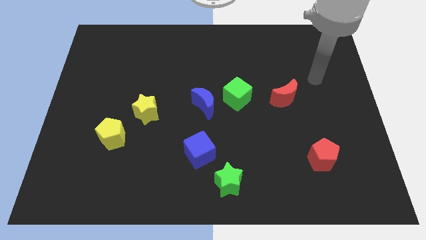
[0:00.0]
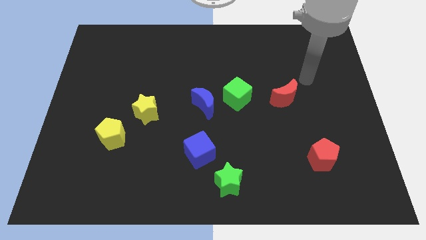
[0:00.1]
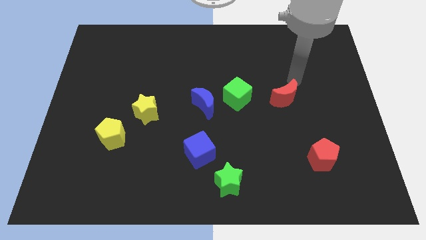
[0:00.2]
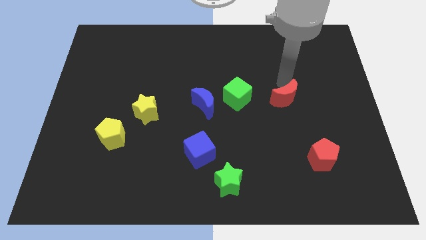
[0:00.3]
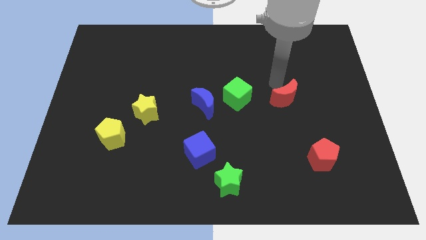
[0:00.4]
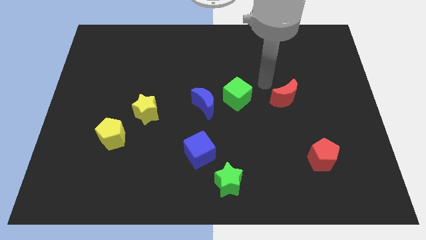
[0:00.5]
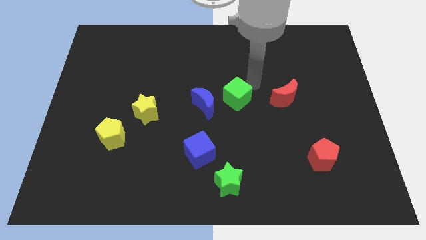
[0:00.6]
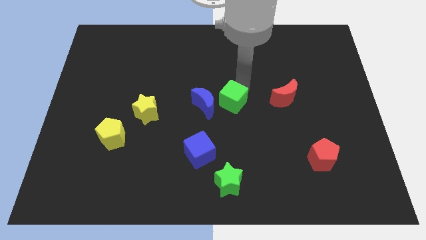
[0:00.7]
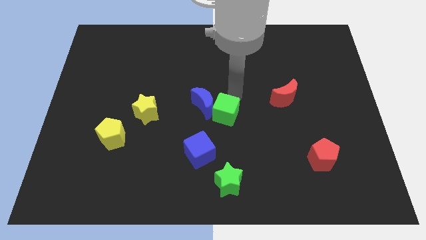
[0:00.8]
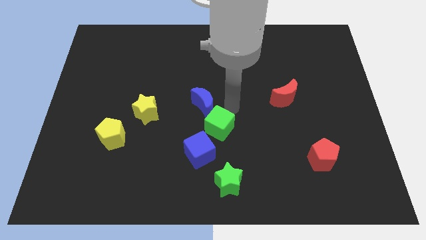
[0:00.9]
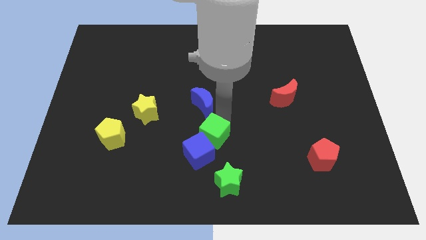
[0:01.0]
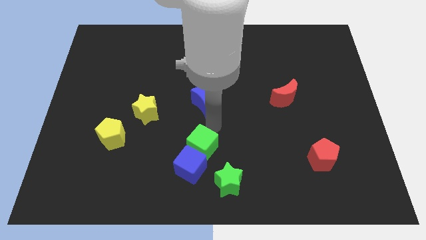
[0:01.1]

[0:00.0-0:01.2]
pull the blue moon apart from the green cube

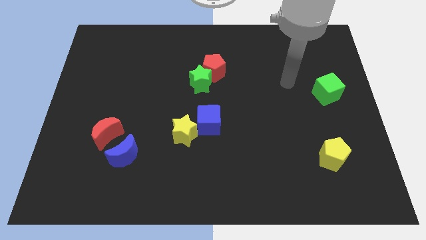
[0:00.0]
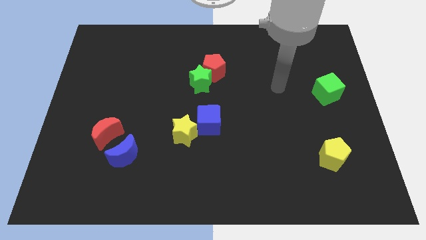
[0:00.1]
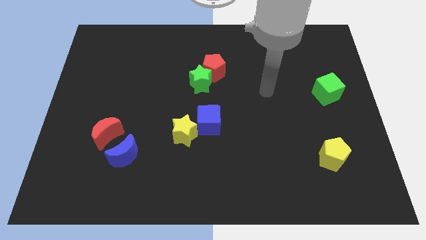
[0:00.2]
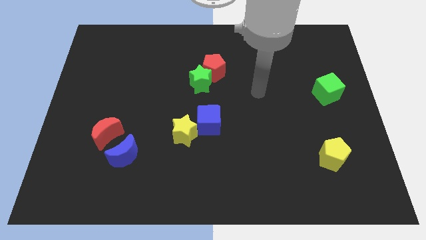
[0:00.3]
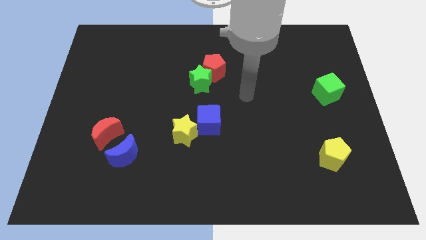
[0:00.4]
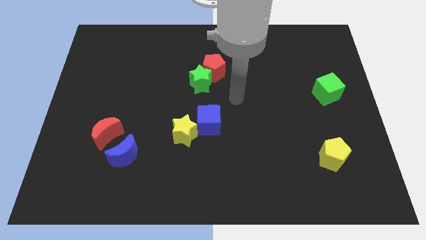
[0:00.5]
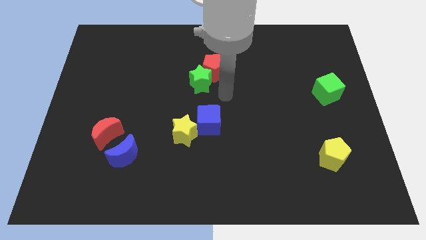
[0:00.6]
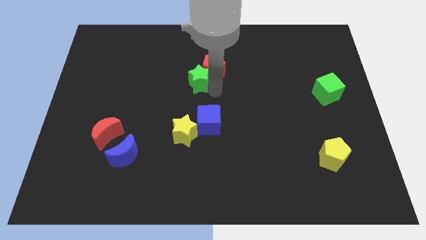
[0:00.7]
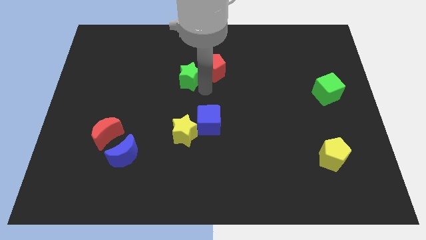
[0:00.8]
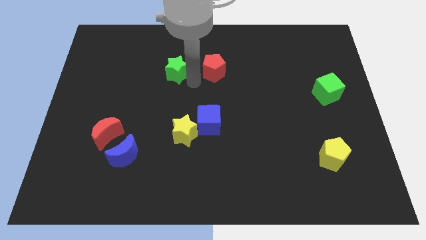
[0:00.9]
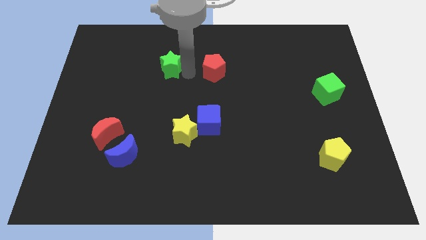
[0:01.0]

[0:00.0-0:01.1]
separate the red pentagon from the green star

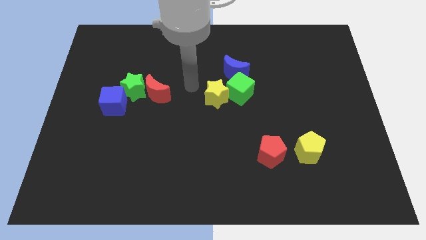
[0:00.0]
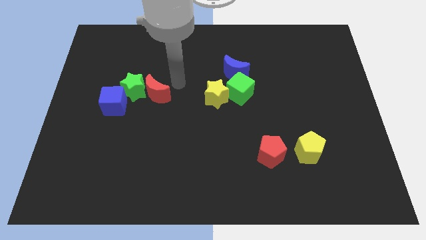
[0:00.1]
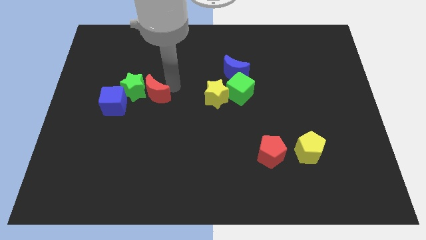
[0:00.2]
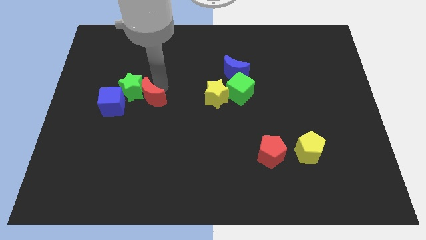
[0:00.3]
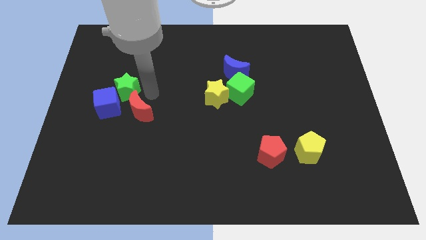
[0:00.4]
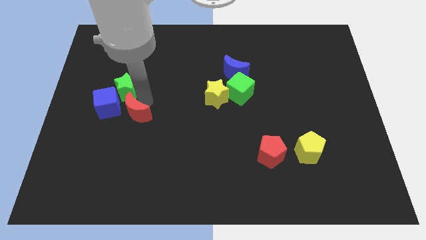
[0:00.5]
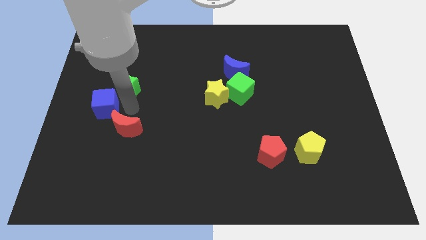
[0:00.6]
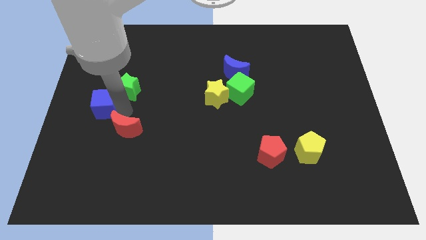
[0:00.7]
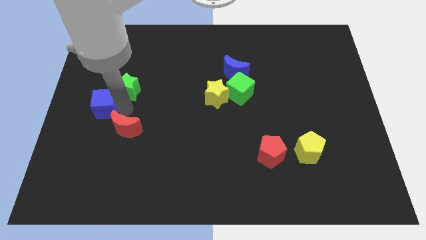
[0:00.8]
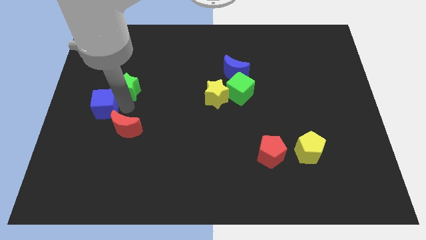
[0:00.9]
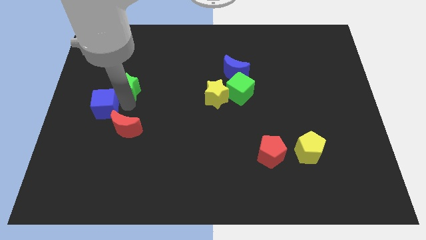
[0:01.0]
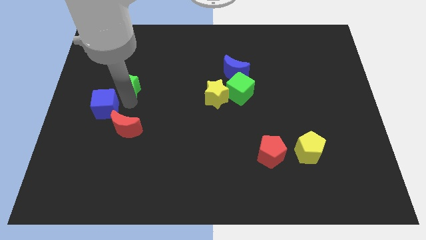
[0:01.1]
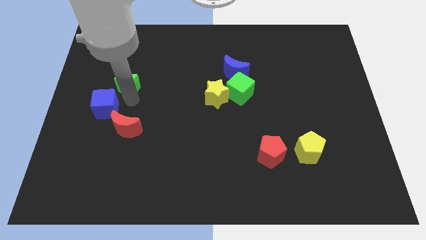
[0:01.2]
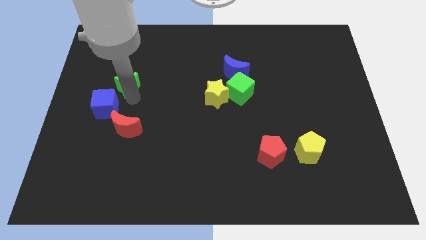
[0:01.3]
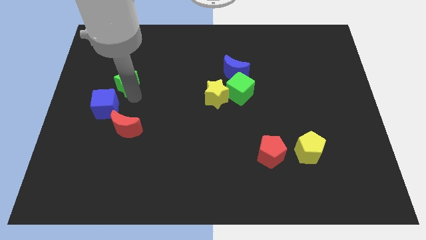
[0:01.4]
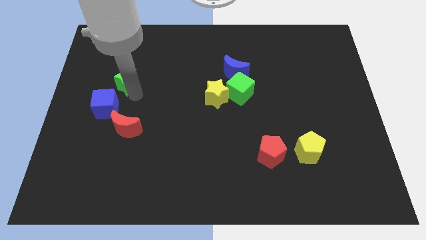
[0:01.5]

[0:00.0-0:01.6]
pull the green star apart from the red moon and blue cube

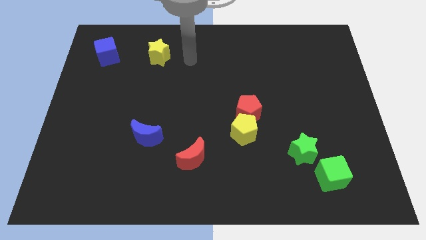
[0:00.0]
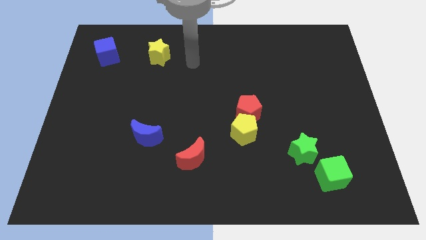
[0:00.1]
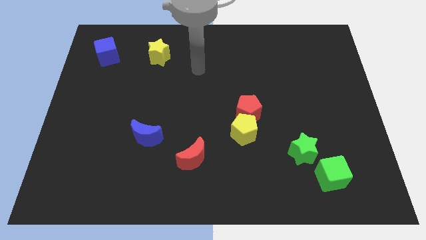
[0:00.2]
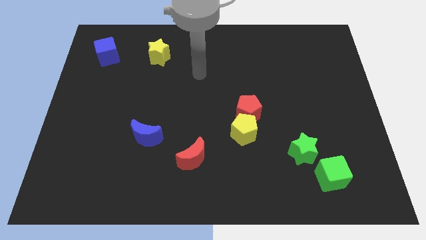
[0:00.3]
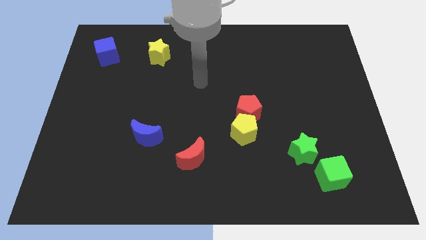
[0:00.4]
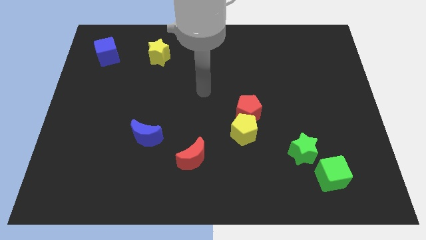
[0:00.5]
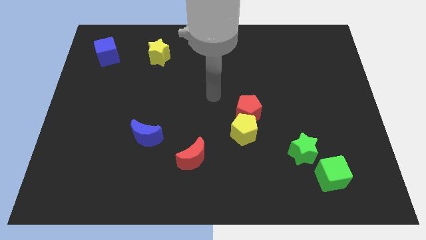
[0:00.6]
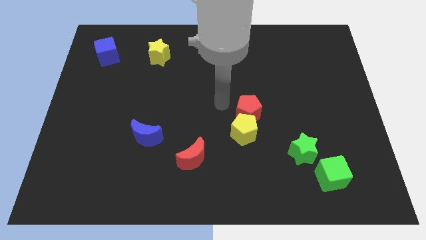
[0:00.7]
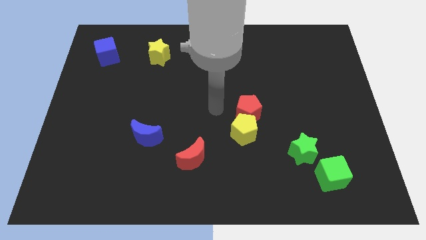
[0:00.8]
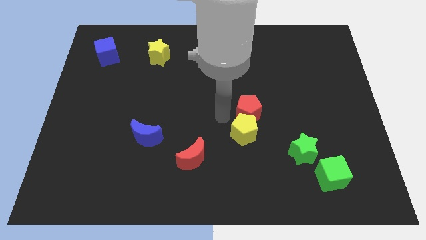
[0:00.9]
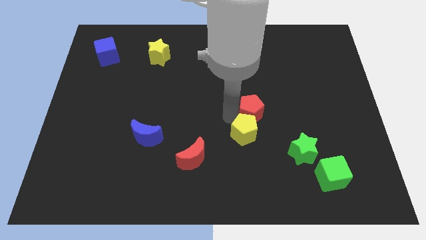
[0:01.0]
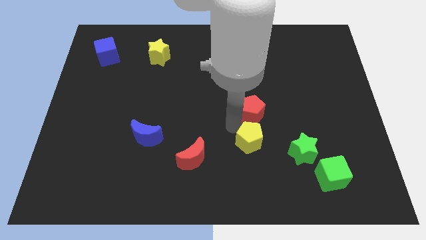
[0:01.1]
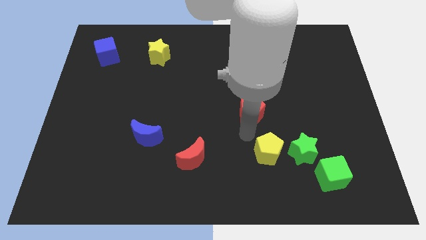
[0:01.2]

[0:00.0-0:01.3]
pull the red pentagon apart from the yellow pentagon

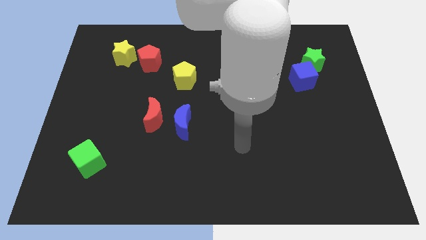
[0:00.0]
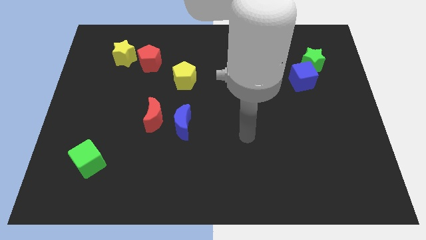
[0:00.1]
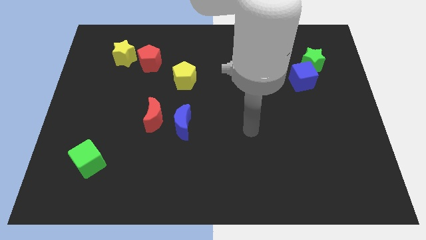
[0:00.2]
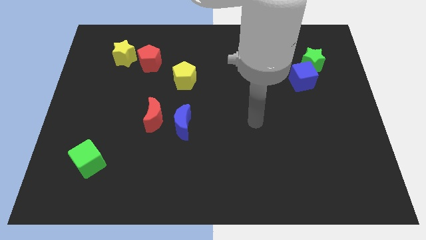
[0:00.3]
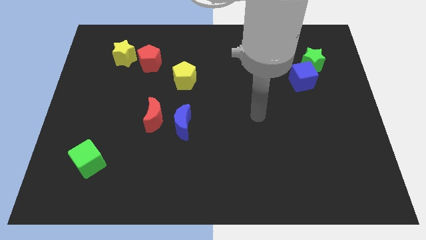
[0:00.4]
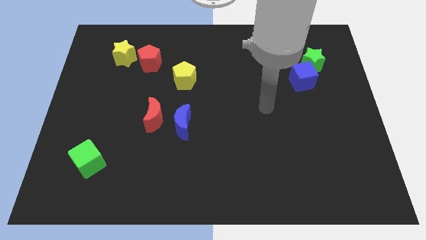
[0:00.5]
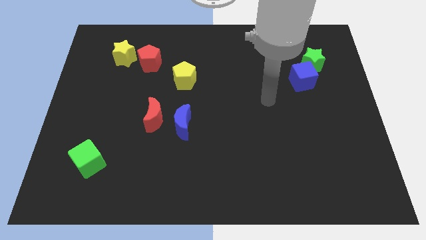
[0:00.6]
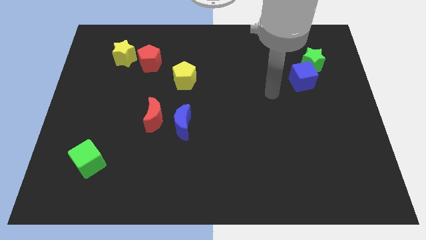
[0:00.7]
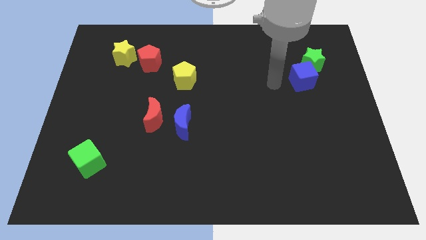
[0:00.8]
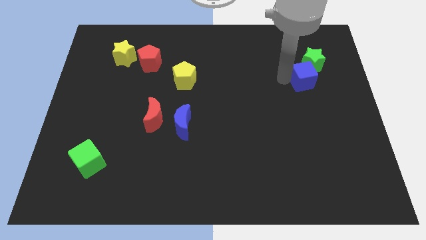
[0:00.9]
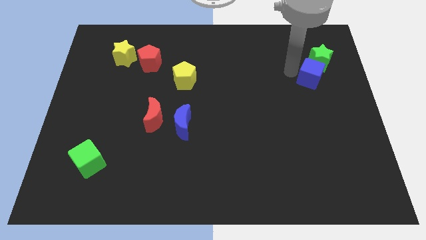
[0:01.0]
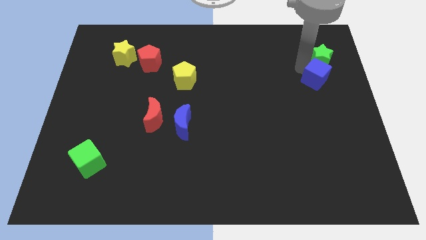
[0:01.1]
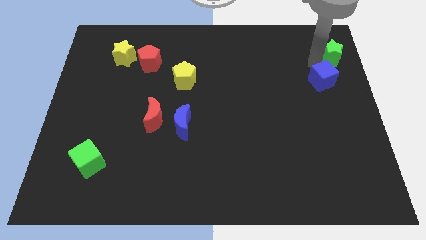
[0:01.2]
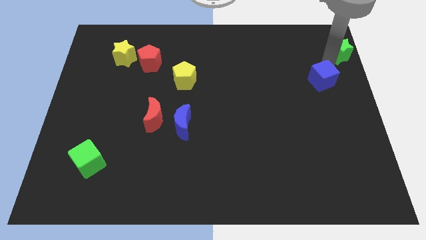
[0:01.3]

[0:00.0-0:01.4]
pull the blue cube apart from the green star

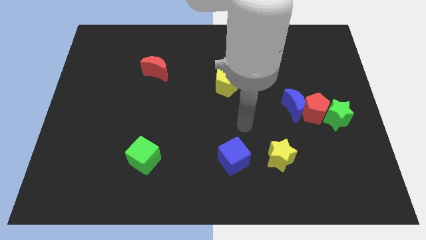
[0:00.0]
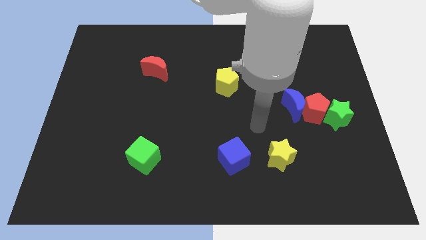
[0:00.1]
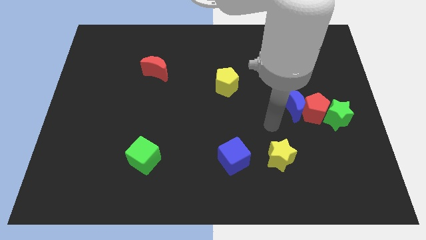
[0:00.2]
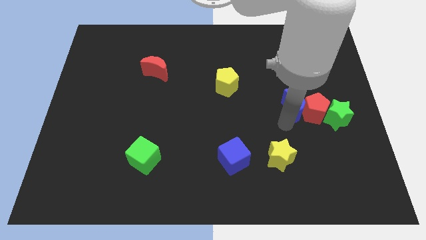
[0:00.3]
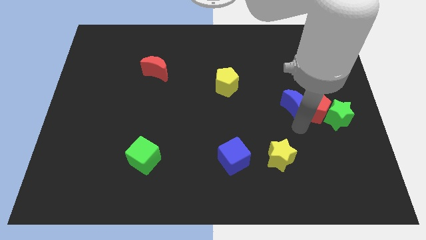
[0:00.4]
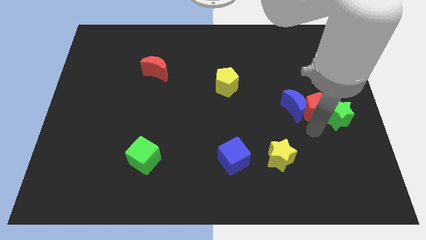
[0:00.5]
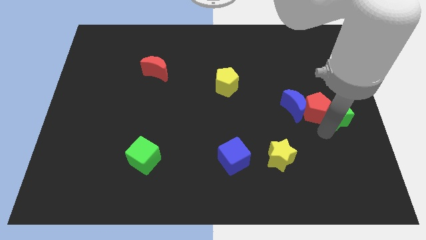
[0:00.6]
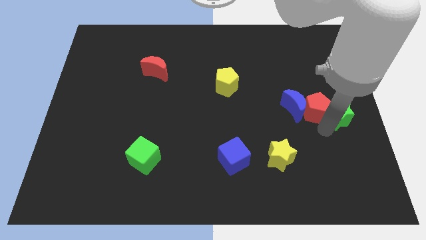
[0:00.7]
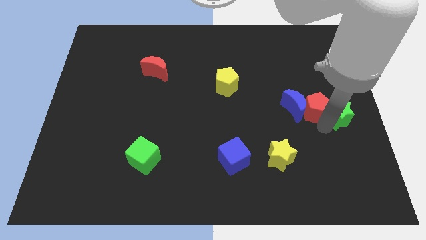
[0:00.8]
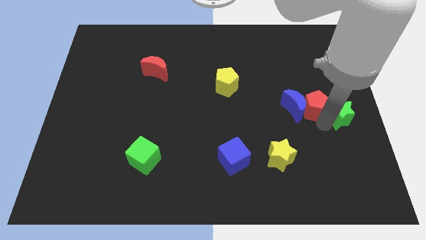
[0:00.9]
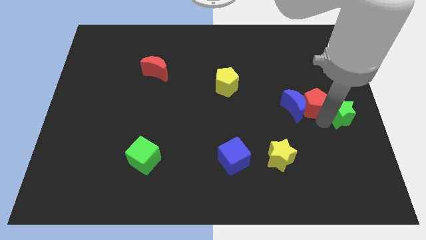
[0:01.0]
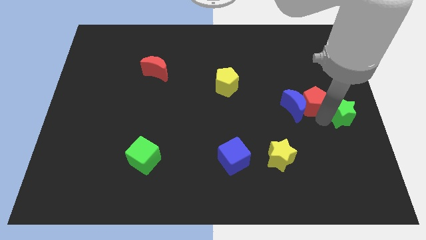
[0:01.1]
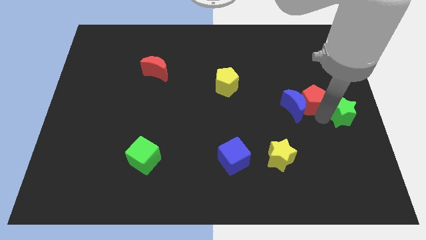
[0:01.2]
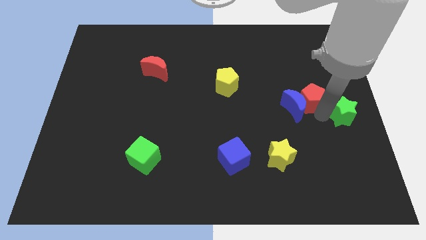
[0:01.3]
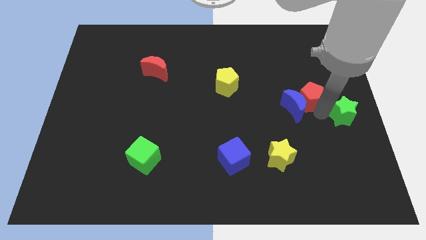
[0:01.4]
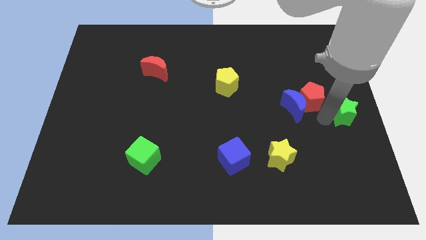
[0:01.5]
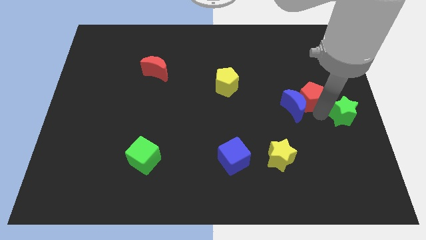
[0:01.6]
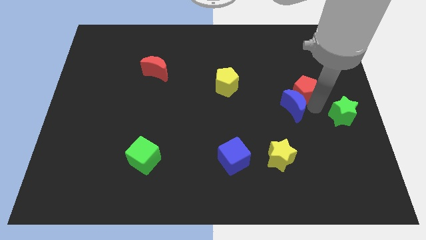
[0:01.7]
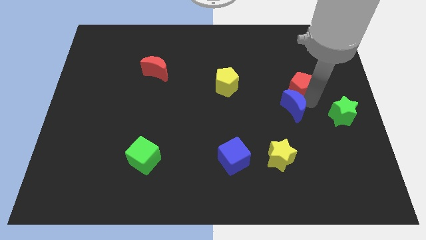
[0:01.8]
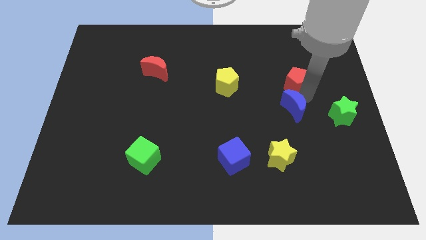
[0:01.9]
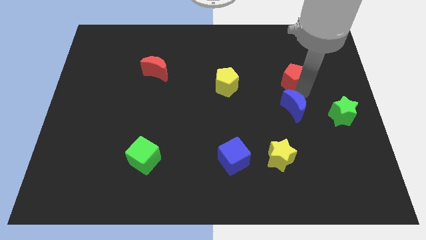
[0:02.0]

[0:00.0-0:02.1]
move the red pentagon away from the blue moon and green star

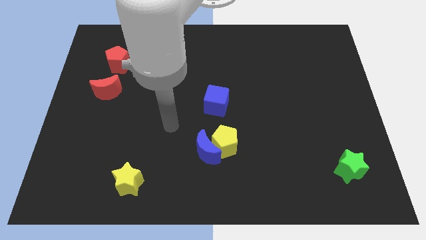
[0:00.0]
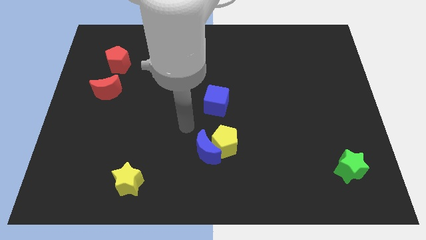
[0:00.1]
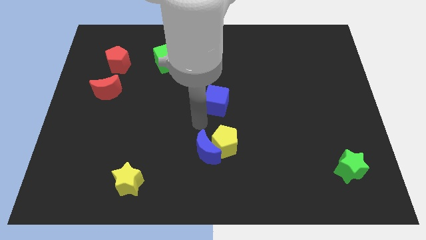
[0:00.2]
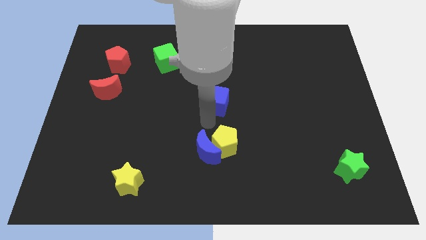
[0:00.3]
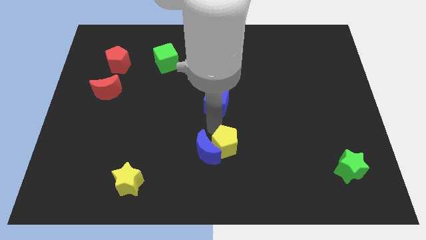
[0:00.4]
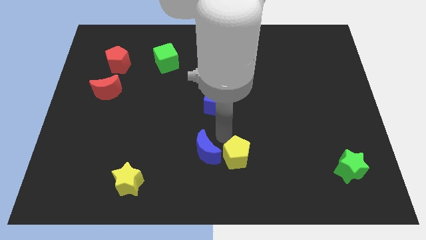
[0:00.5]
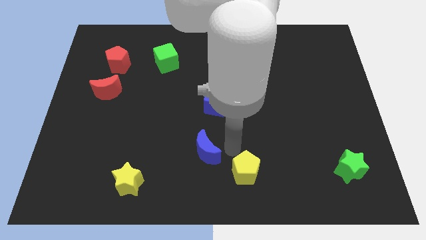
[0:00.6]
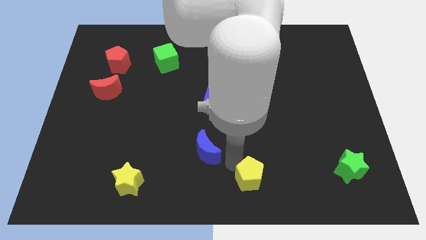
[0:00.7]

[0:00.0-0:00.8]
pull the blue moon apart from the yellow pentagon
